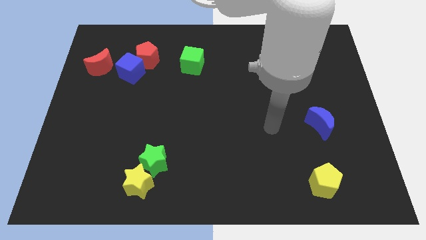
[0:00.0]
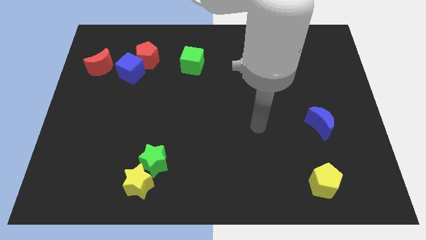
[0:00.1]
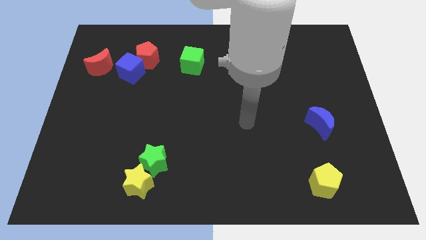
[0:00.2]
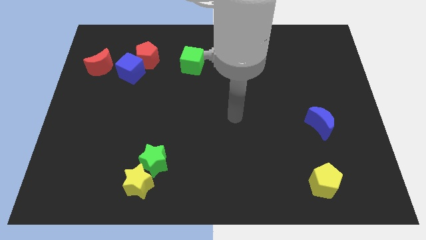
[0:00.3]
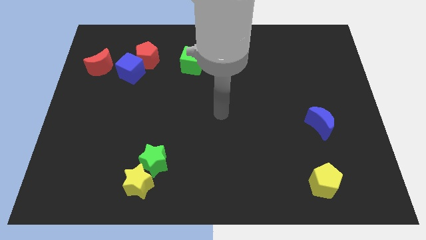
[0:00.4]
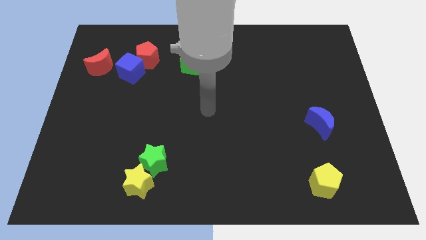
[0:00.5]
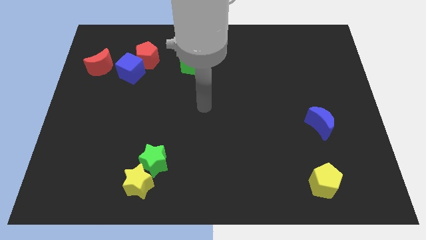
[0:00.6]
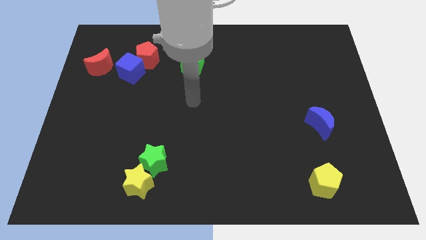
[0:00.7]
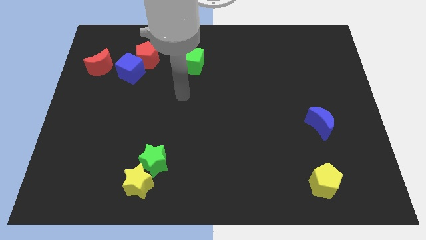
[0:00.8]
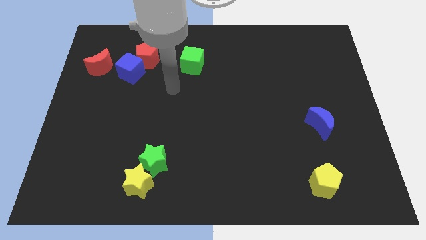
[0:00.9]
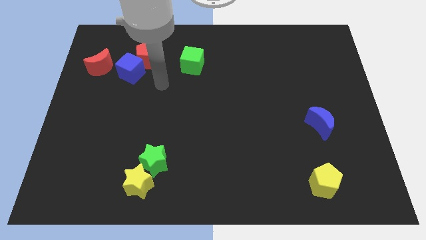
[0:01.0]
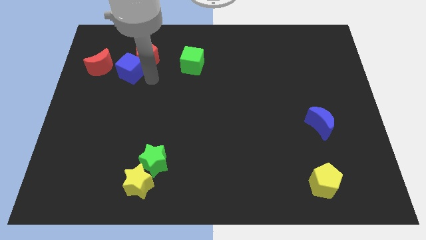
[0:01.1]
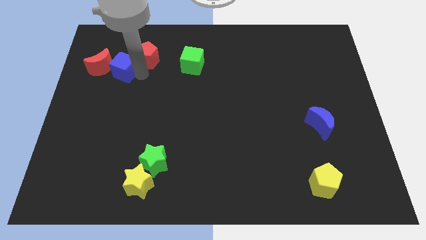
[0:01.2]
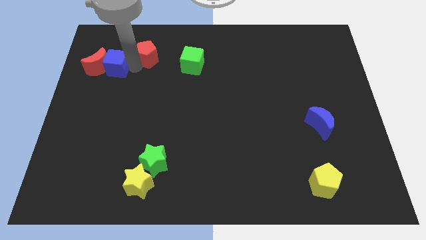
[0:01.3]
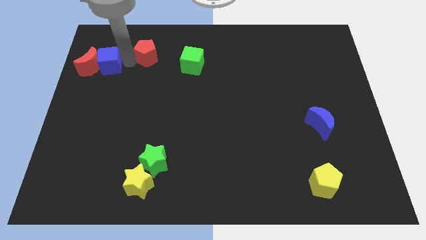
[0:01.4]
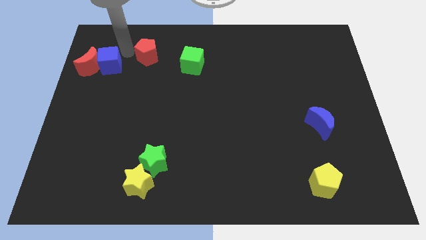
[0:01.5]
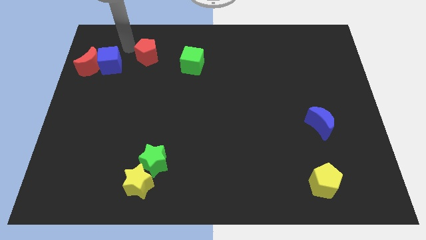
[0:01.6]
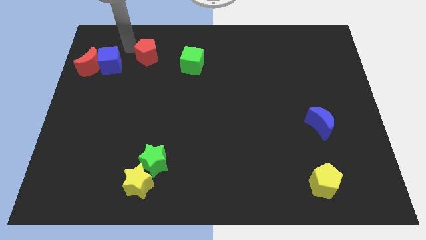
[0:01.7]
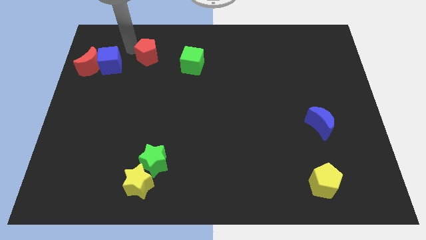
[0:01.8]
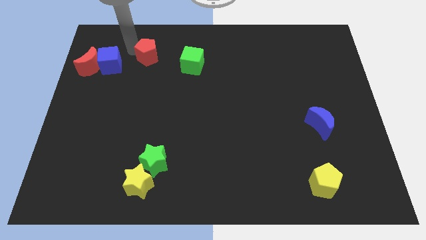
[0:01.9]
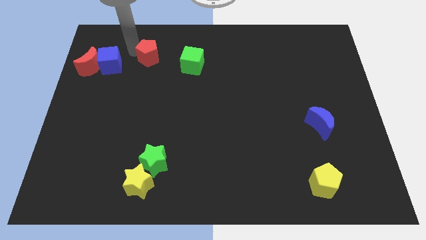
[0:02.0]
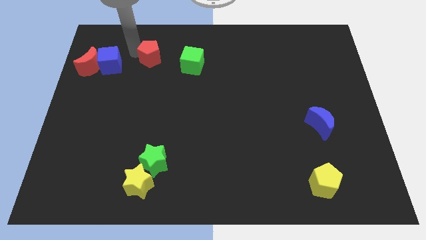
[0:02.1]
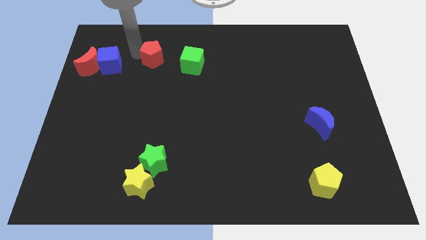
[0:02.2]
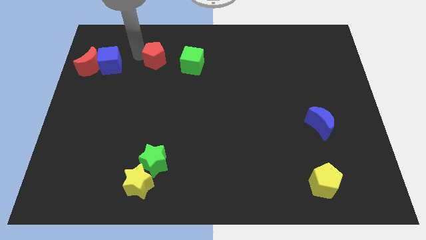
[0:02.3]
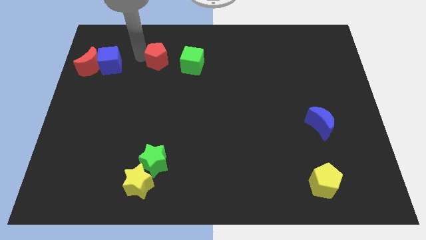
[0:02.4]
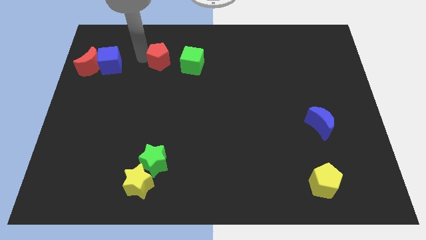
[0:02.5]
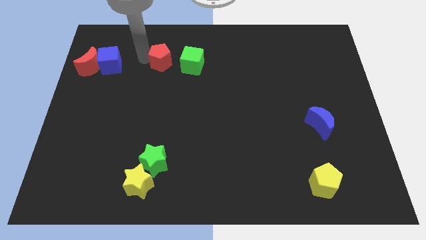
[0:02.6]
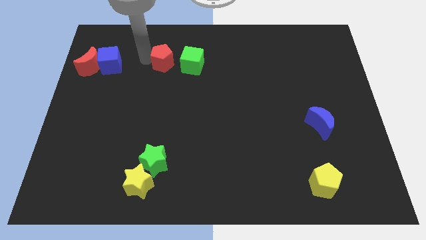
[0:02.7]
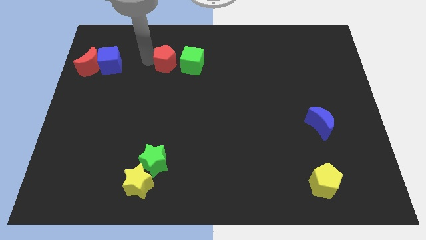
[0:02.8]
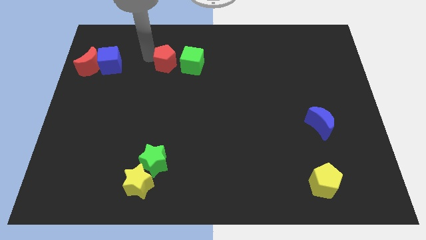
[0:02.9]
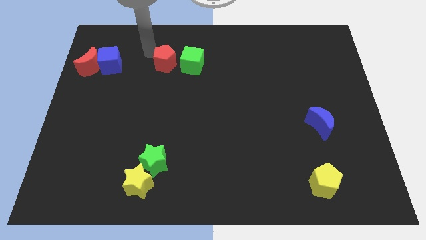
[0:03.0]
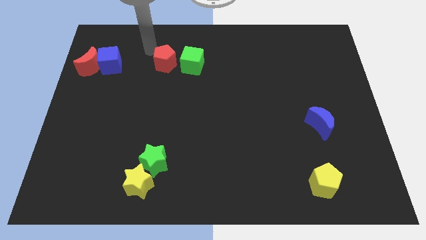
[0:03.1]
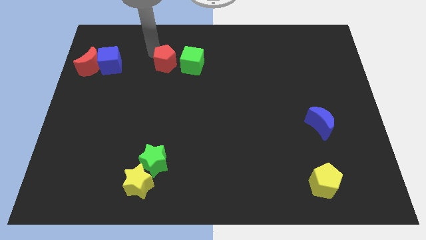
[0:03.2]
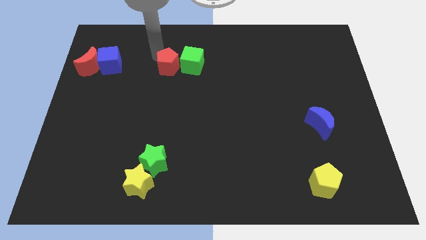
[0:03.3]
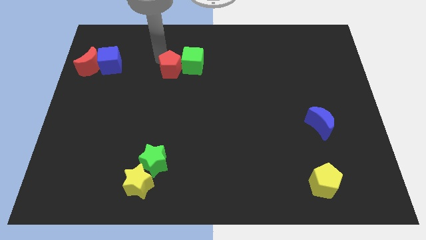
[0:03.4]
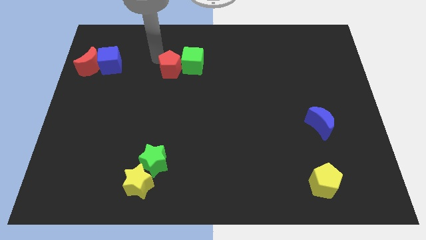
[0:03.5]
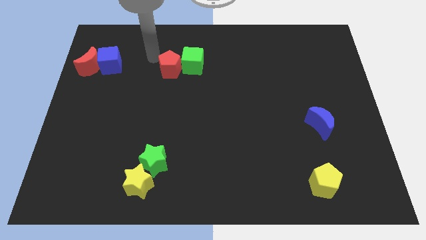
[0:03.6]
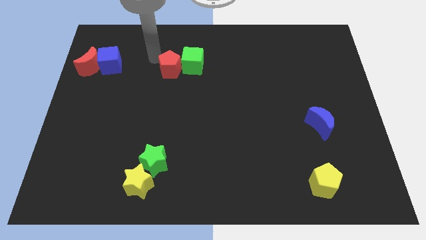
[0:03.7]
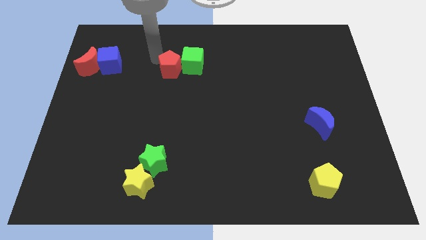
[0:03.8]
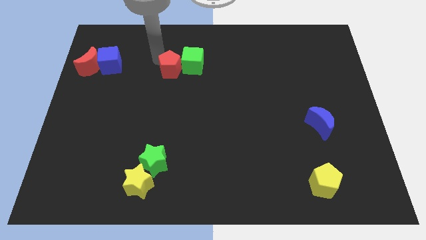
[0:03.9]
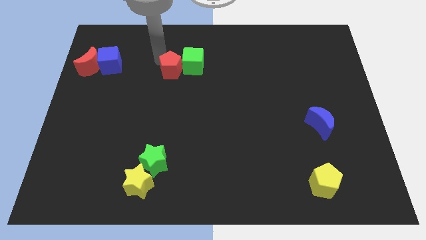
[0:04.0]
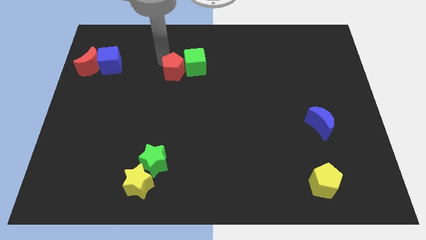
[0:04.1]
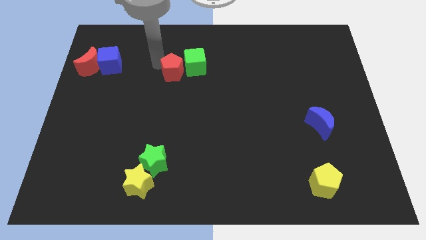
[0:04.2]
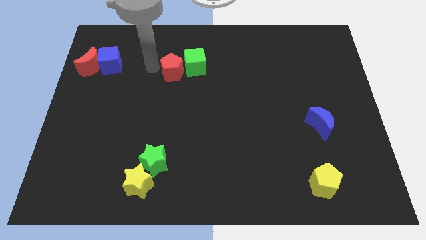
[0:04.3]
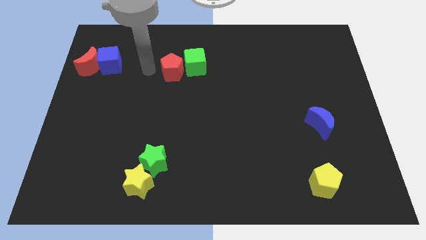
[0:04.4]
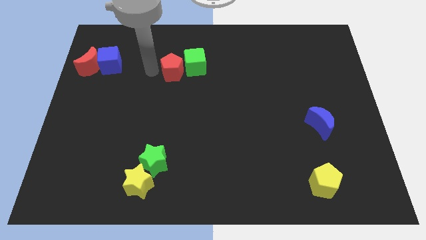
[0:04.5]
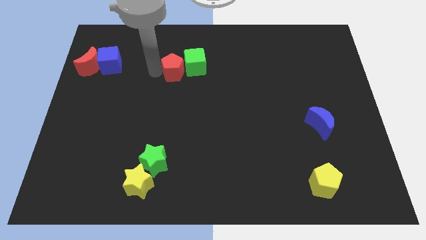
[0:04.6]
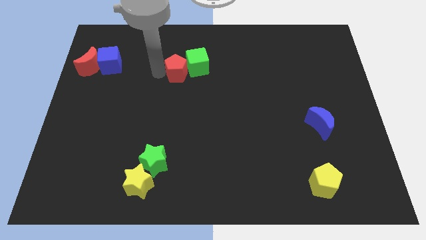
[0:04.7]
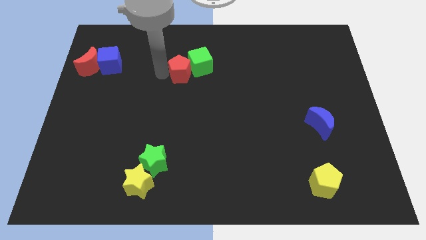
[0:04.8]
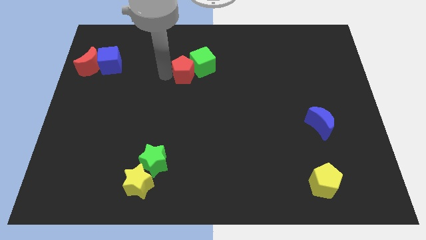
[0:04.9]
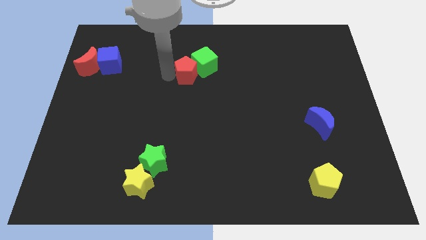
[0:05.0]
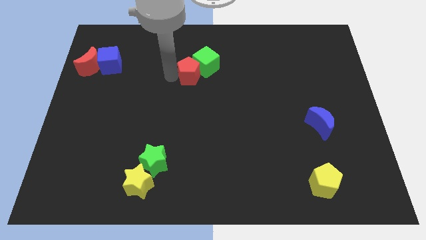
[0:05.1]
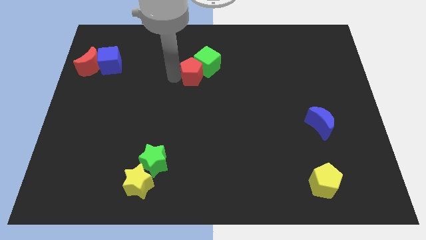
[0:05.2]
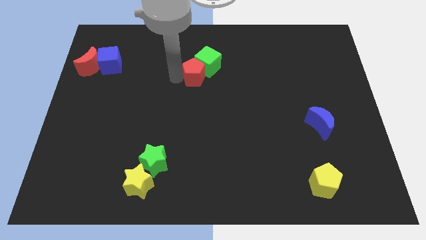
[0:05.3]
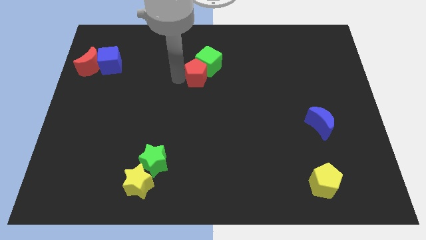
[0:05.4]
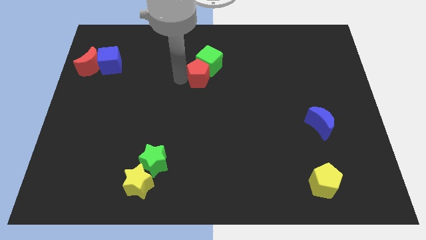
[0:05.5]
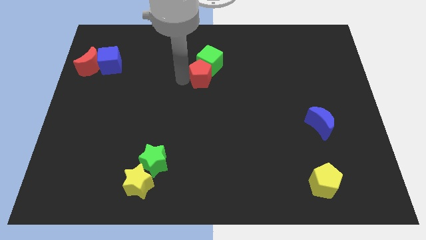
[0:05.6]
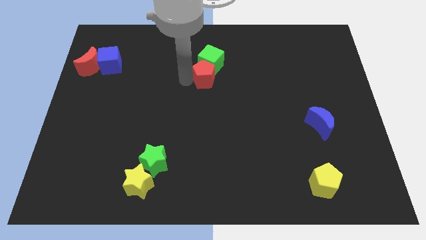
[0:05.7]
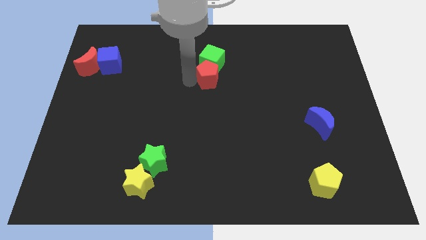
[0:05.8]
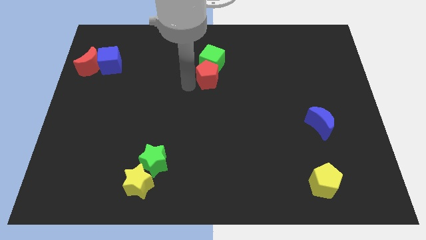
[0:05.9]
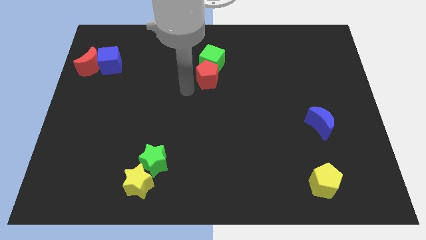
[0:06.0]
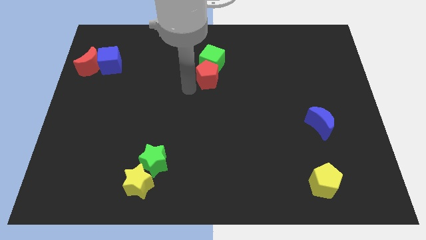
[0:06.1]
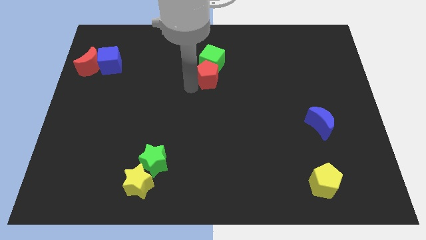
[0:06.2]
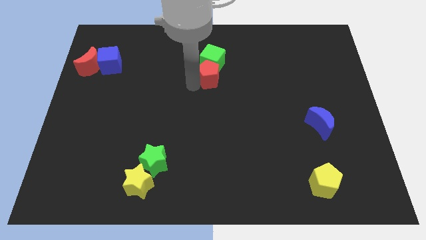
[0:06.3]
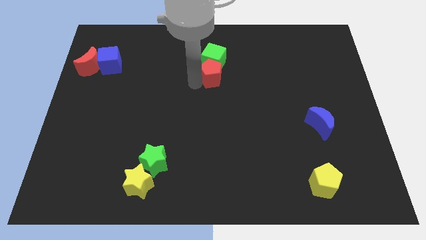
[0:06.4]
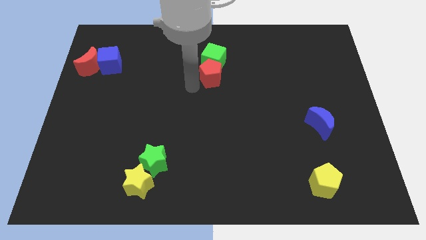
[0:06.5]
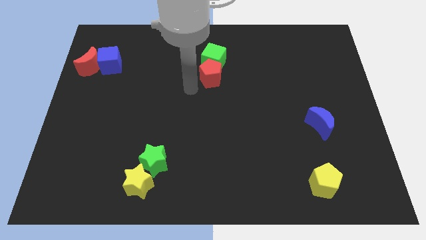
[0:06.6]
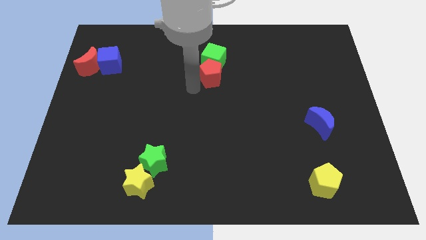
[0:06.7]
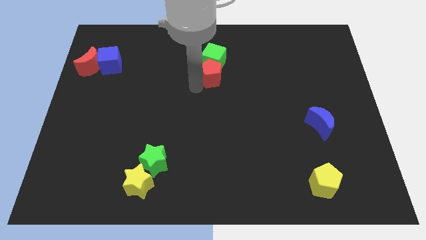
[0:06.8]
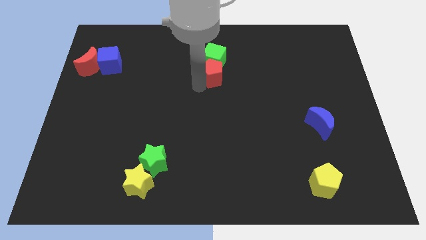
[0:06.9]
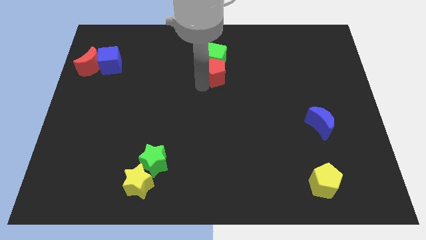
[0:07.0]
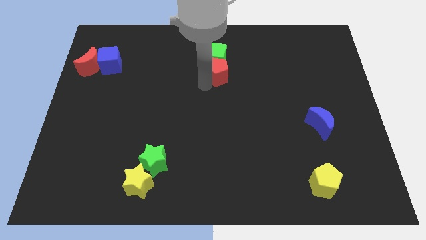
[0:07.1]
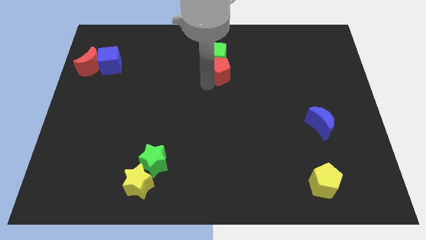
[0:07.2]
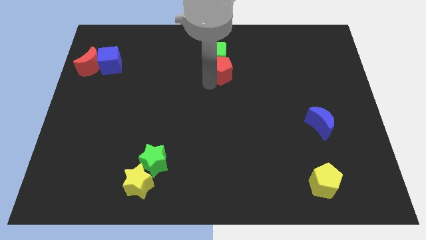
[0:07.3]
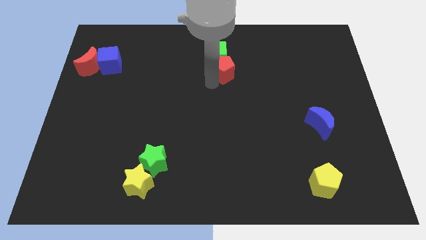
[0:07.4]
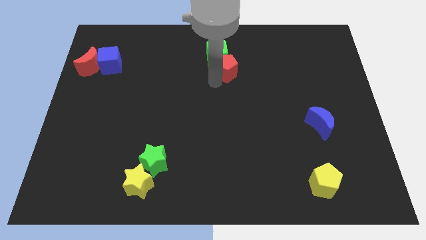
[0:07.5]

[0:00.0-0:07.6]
slide the red pentagon to the right

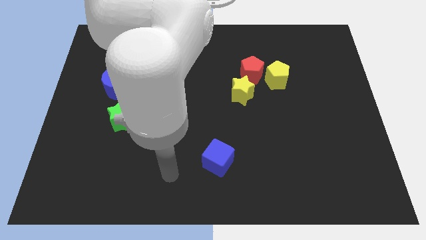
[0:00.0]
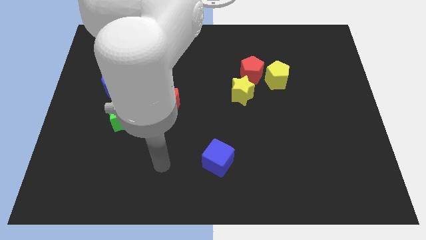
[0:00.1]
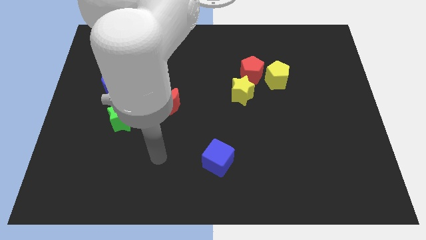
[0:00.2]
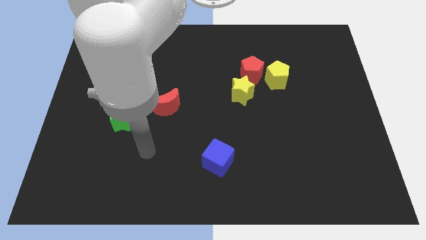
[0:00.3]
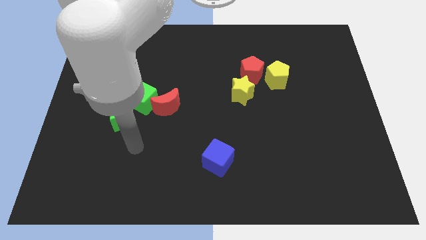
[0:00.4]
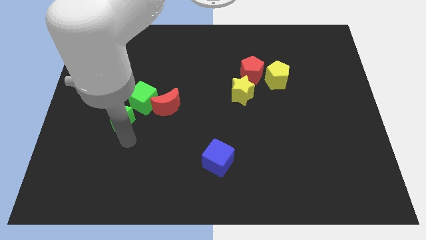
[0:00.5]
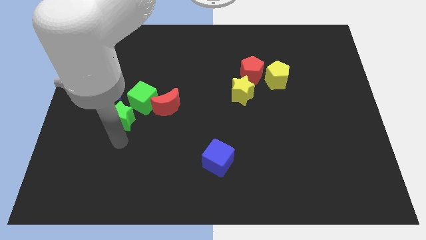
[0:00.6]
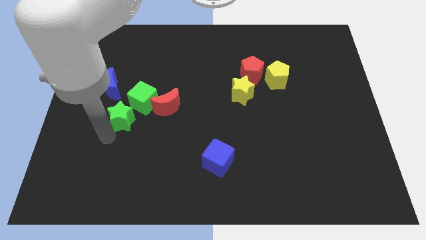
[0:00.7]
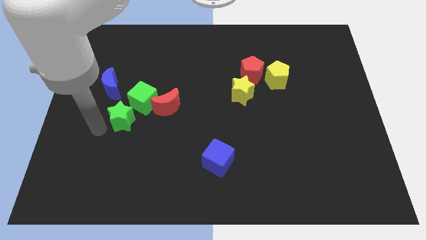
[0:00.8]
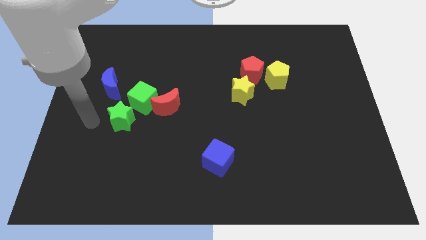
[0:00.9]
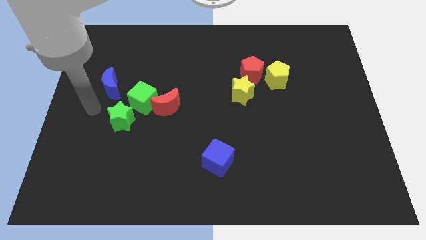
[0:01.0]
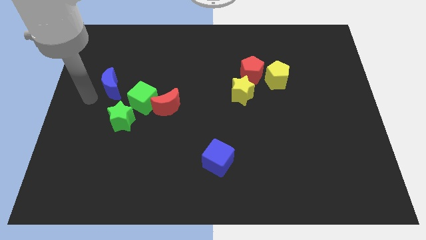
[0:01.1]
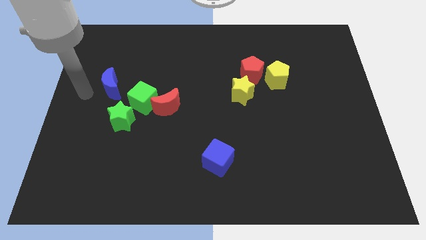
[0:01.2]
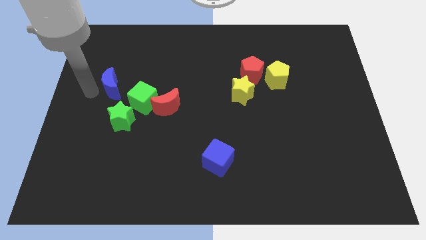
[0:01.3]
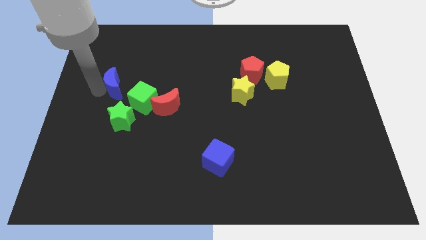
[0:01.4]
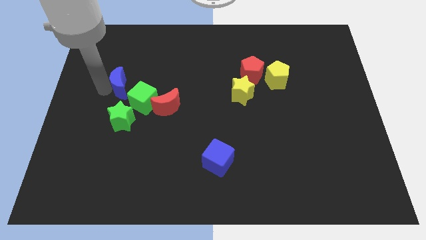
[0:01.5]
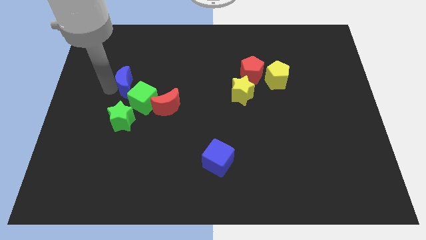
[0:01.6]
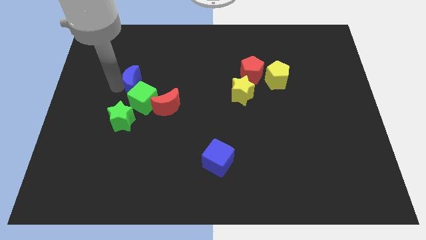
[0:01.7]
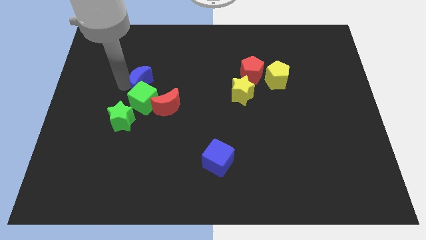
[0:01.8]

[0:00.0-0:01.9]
push the blue moon slightly right
